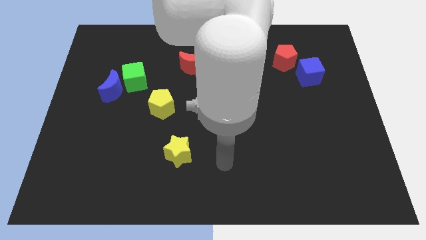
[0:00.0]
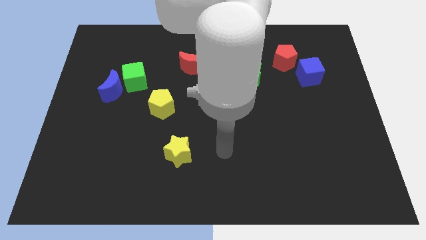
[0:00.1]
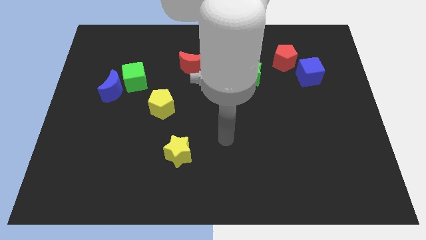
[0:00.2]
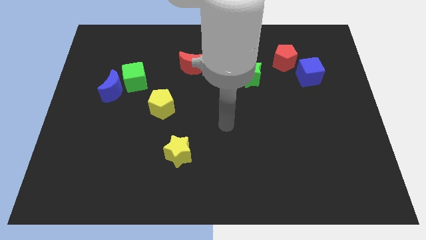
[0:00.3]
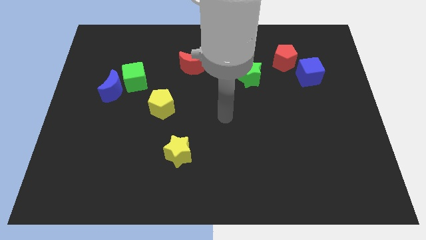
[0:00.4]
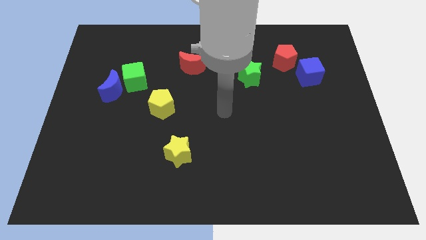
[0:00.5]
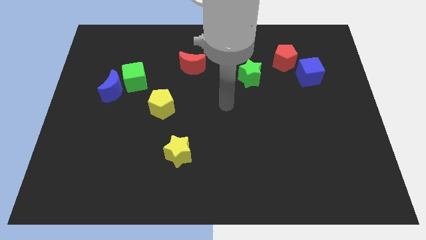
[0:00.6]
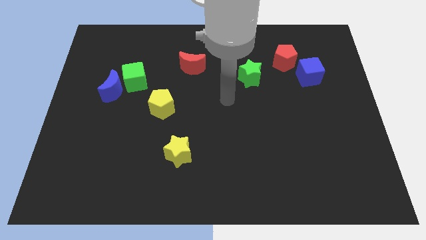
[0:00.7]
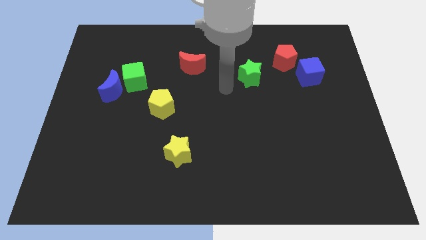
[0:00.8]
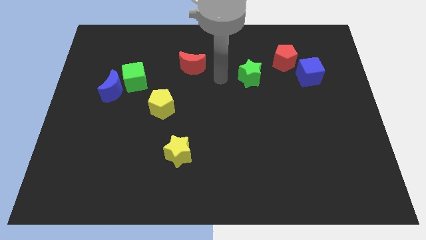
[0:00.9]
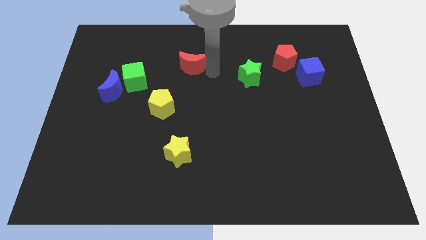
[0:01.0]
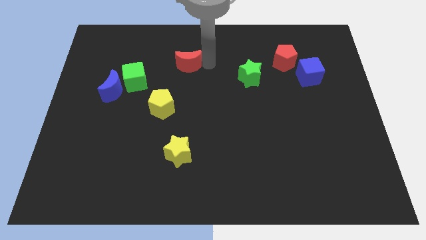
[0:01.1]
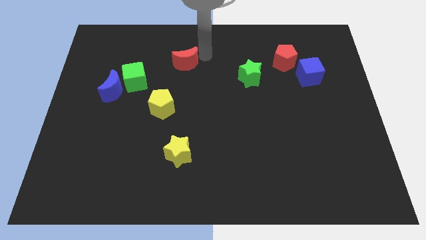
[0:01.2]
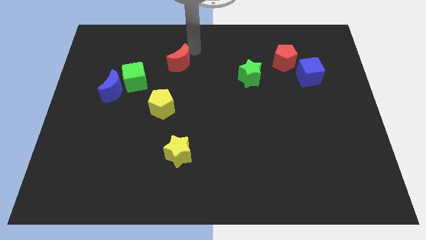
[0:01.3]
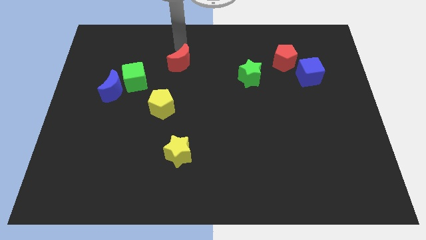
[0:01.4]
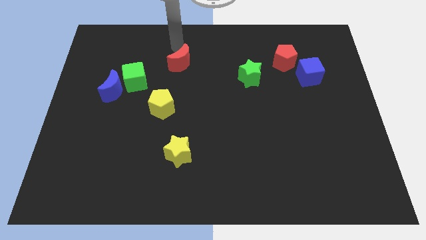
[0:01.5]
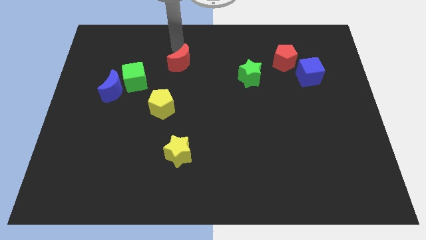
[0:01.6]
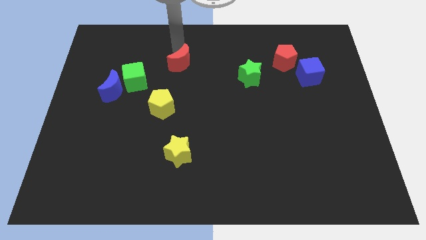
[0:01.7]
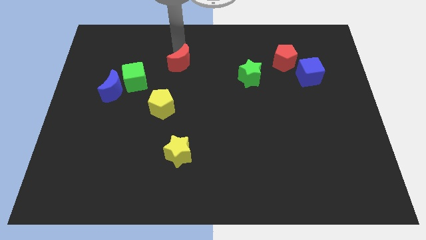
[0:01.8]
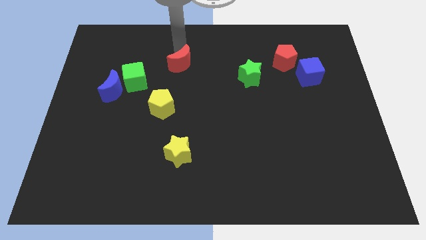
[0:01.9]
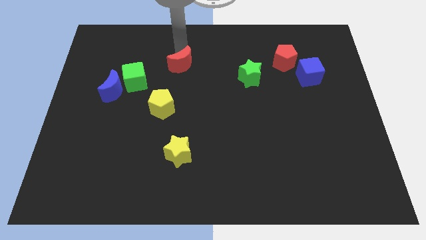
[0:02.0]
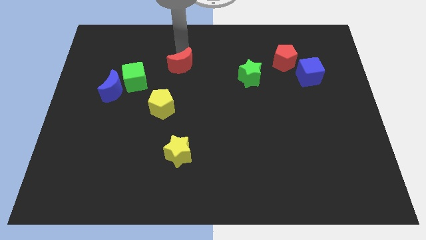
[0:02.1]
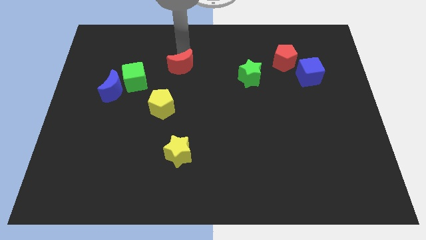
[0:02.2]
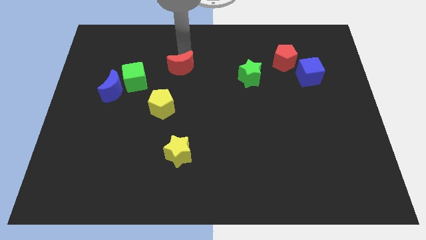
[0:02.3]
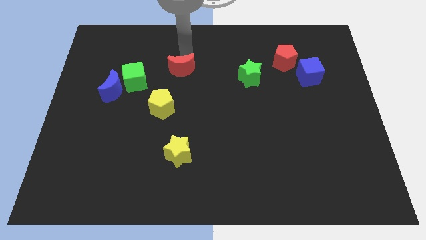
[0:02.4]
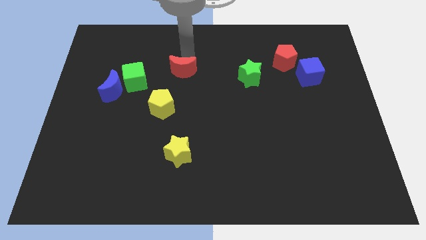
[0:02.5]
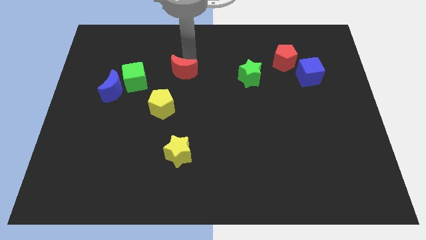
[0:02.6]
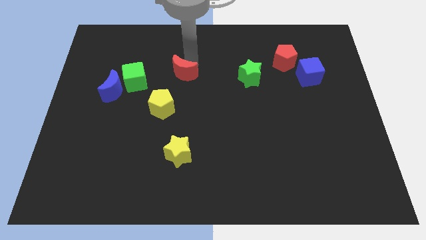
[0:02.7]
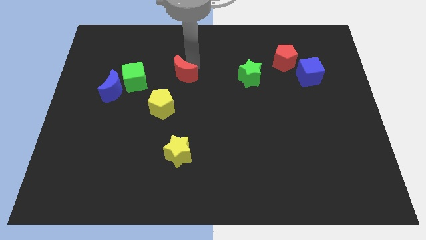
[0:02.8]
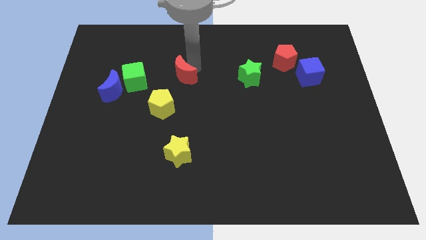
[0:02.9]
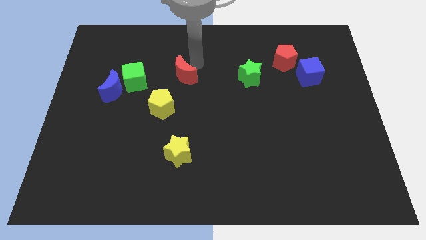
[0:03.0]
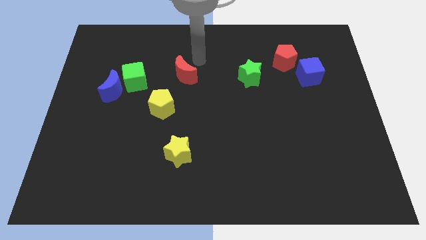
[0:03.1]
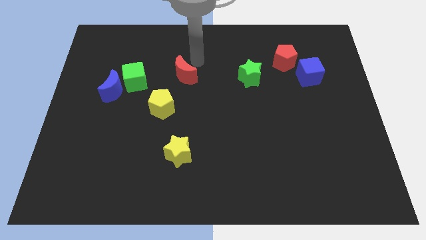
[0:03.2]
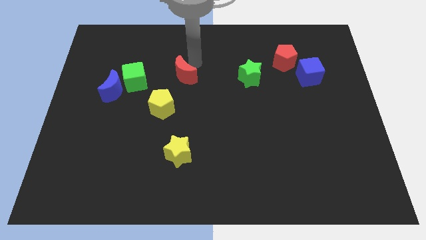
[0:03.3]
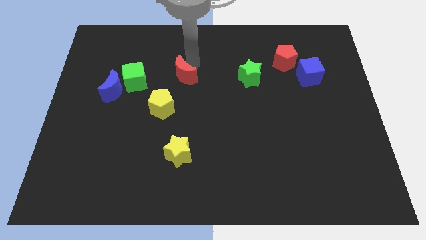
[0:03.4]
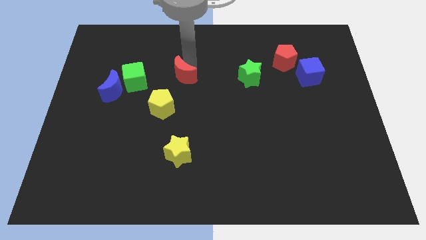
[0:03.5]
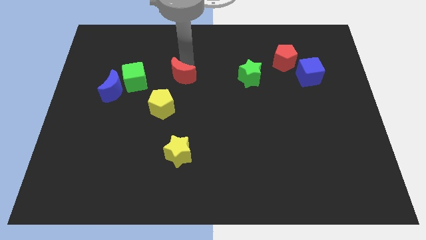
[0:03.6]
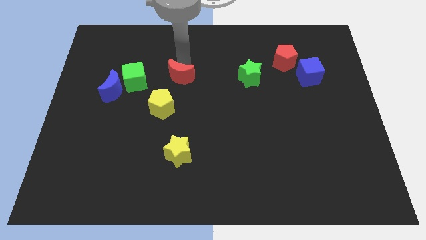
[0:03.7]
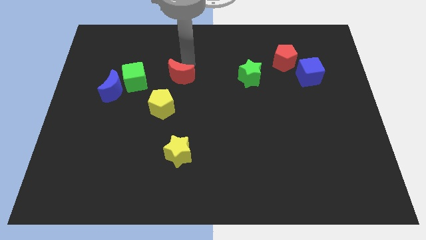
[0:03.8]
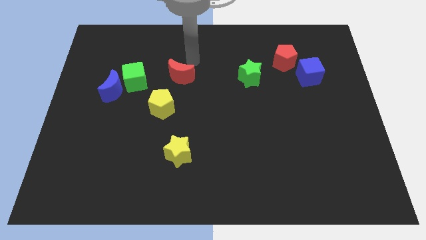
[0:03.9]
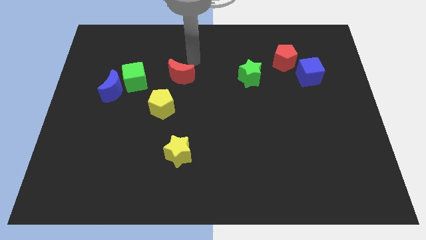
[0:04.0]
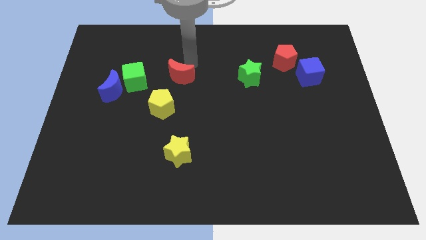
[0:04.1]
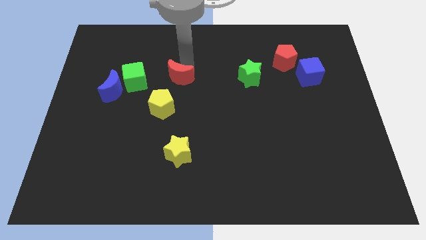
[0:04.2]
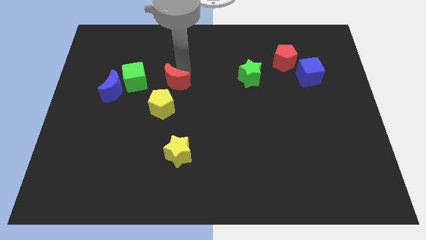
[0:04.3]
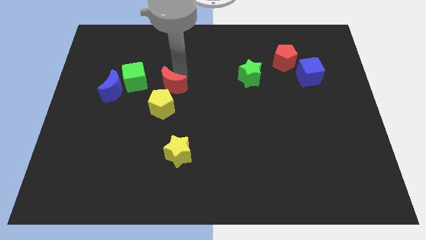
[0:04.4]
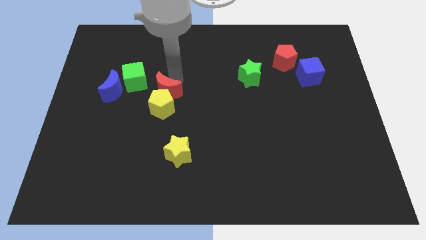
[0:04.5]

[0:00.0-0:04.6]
slide the red moon close to the yellow pentagon

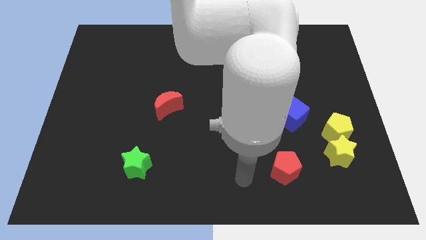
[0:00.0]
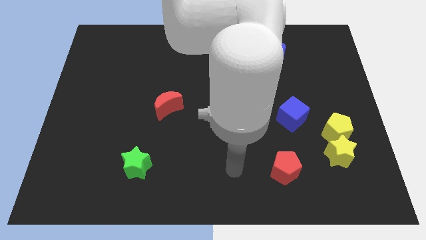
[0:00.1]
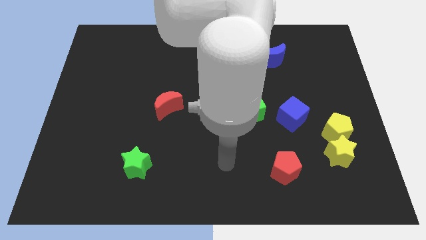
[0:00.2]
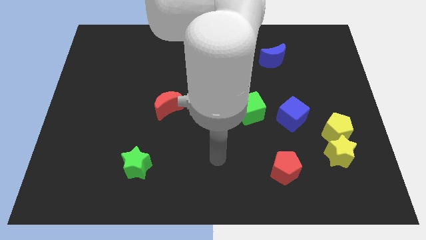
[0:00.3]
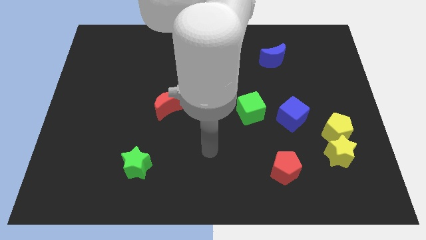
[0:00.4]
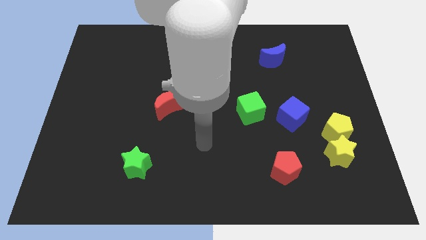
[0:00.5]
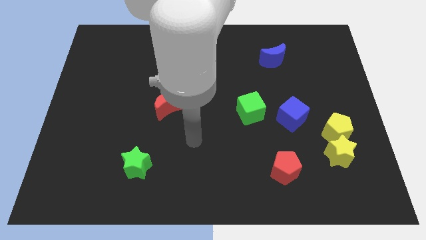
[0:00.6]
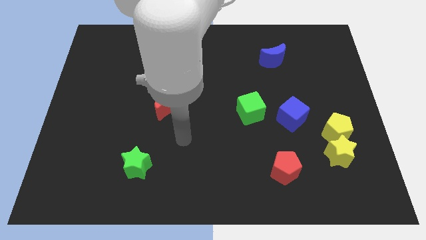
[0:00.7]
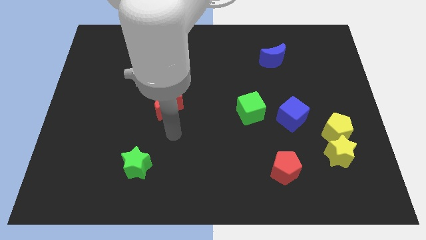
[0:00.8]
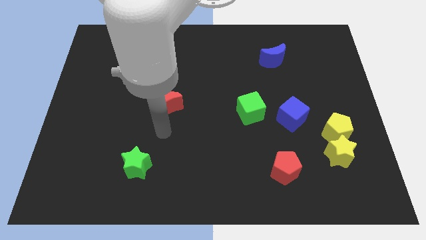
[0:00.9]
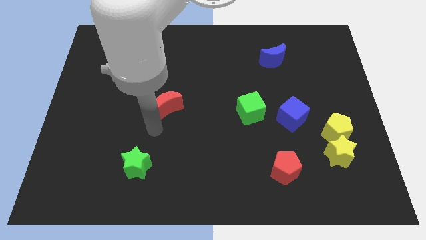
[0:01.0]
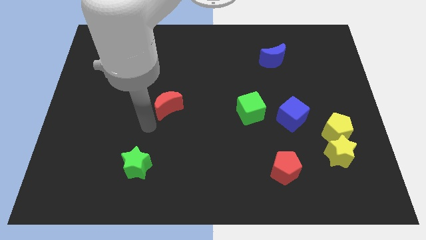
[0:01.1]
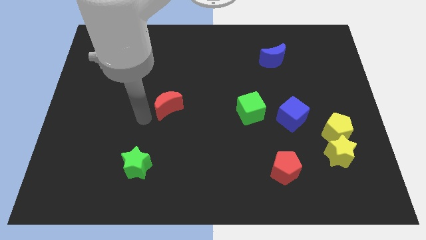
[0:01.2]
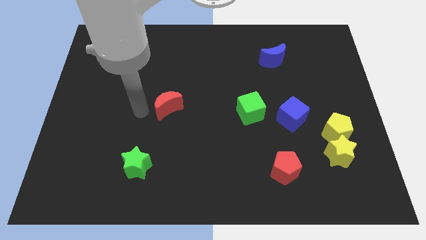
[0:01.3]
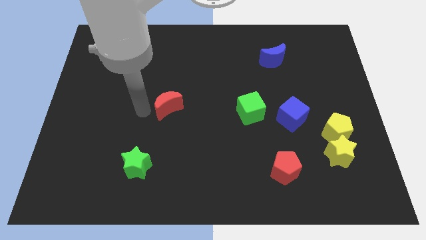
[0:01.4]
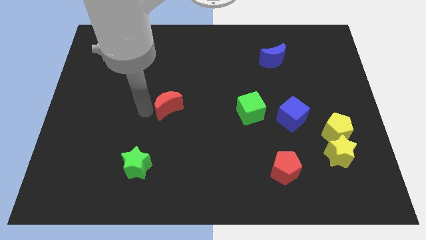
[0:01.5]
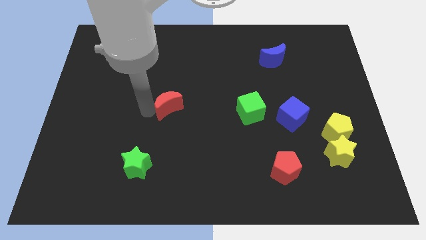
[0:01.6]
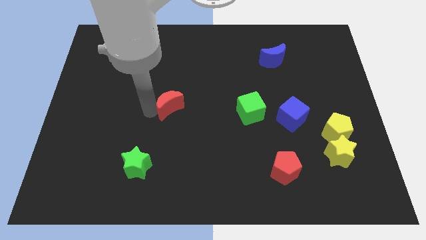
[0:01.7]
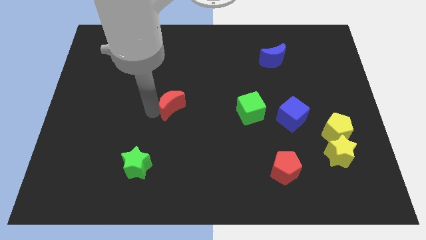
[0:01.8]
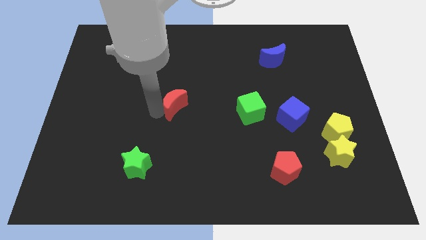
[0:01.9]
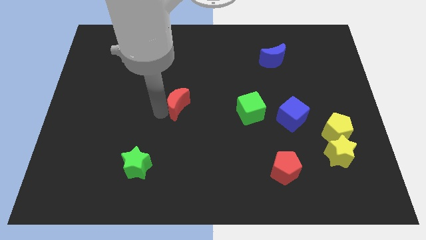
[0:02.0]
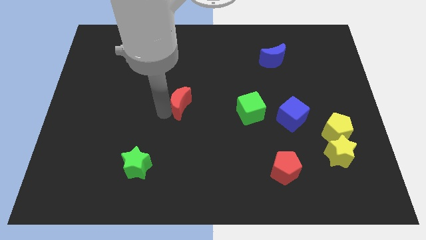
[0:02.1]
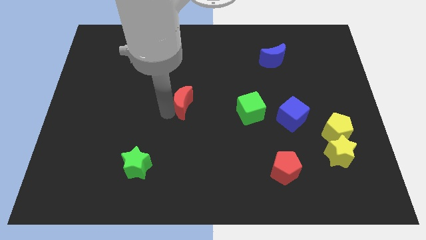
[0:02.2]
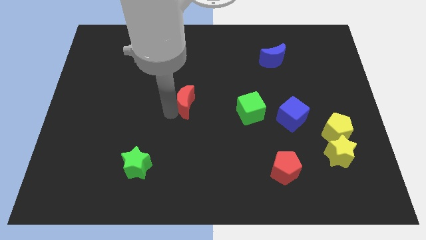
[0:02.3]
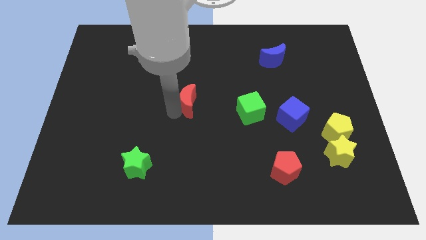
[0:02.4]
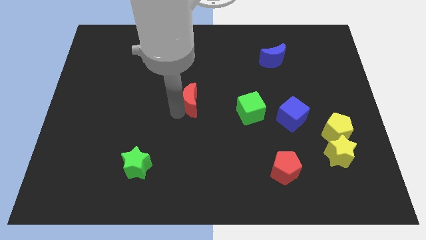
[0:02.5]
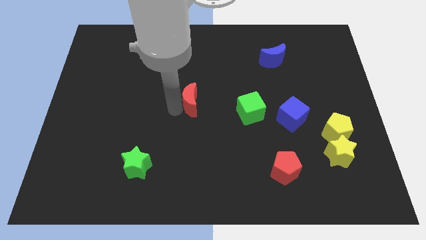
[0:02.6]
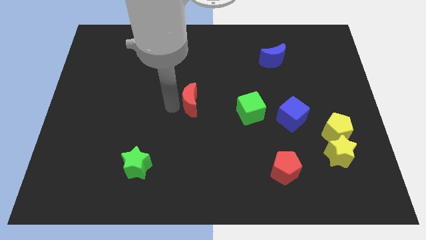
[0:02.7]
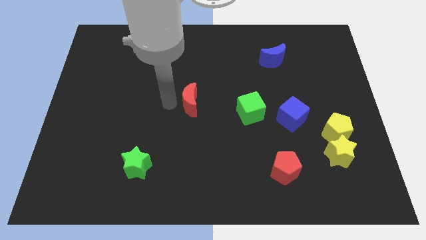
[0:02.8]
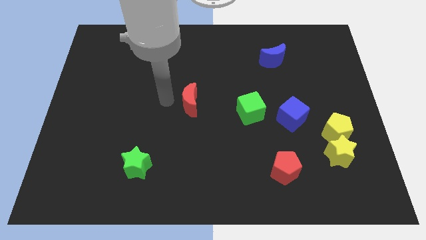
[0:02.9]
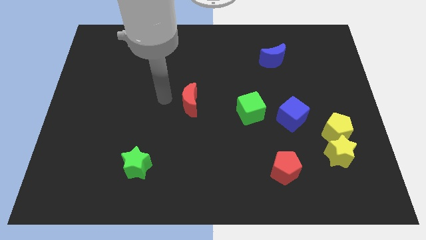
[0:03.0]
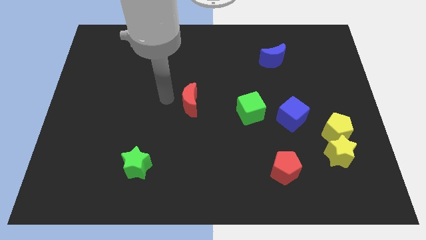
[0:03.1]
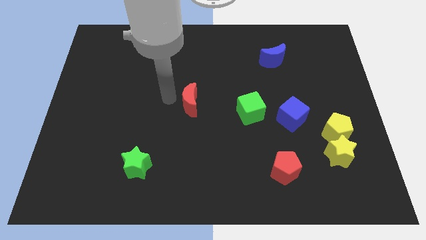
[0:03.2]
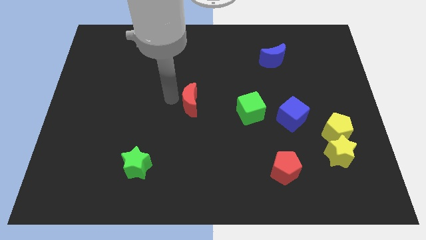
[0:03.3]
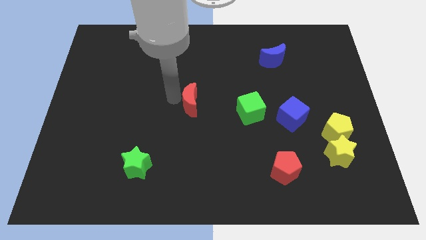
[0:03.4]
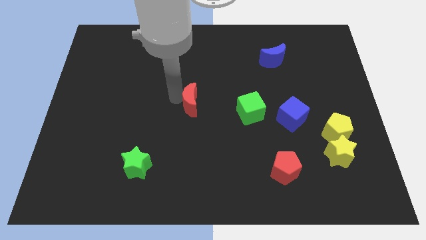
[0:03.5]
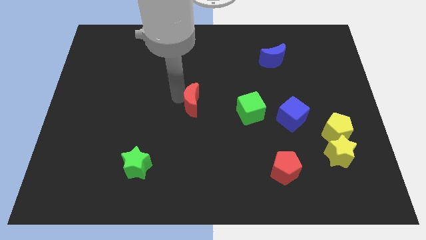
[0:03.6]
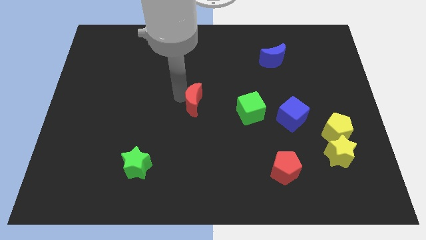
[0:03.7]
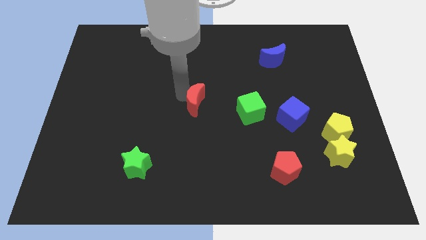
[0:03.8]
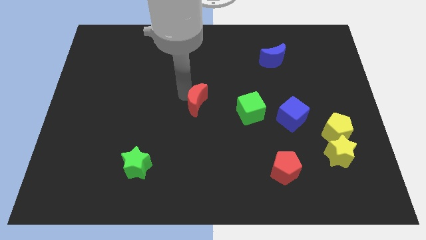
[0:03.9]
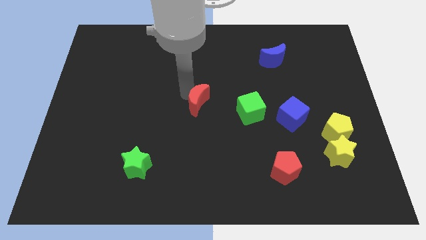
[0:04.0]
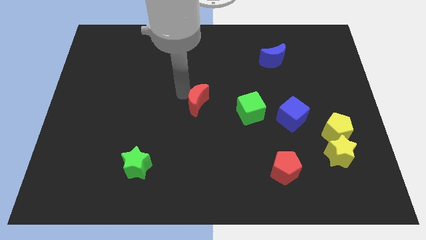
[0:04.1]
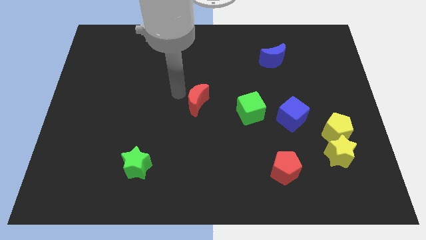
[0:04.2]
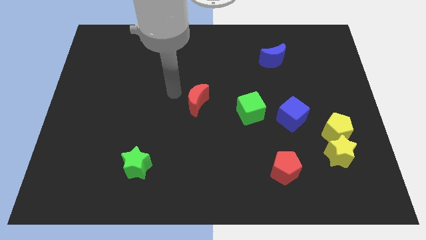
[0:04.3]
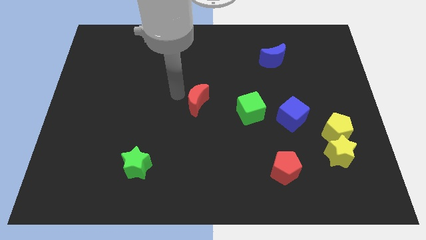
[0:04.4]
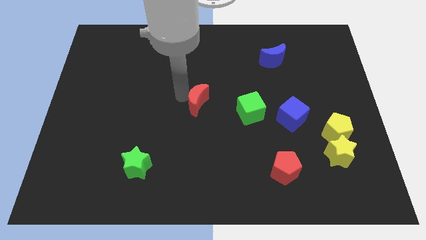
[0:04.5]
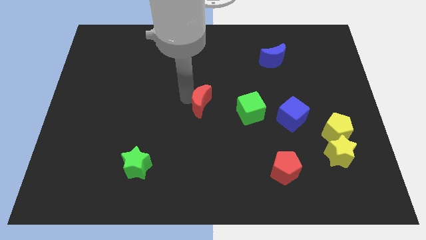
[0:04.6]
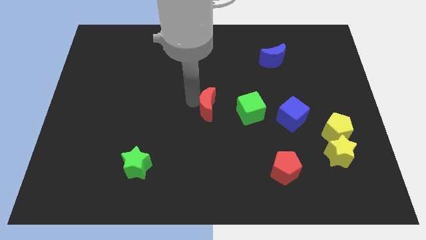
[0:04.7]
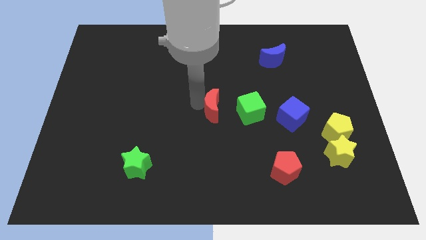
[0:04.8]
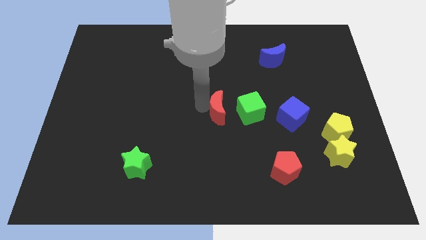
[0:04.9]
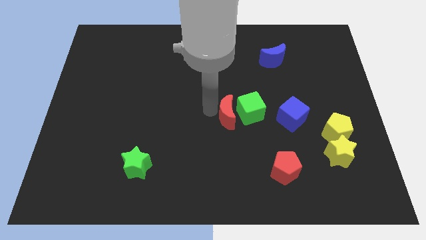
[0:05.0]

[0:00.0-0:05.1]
slide the red moon next to the green cube
